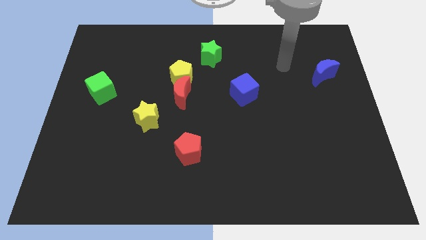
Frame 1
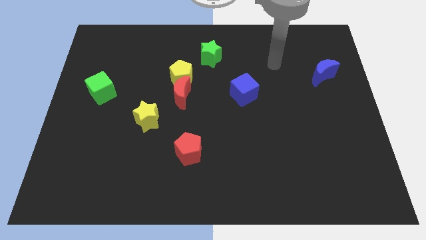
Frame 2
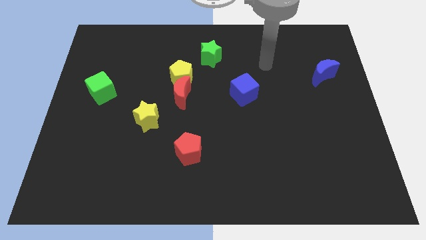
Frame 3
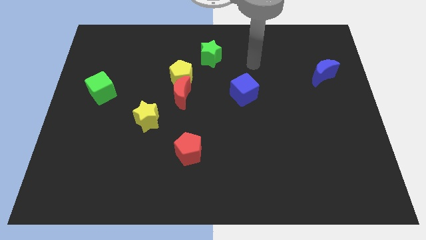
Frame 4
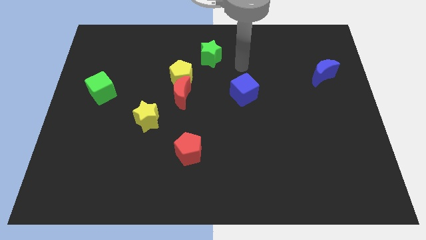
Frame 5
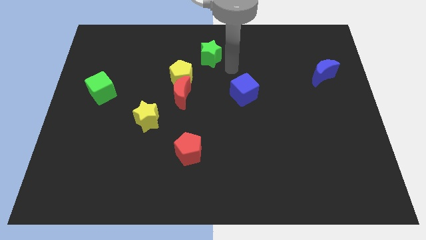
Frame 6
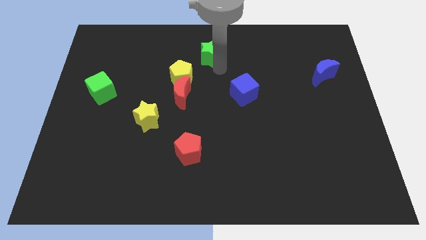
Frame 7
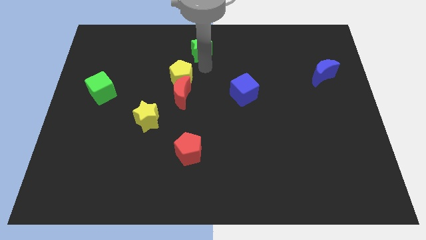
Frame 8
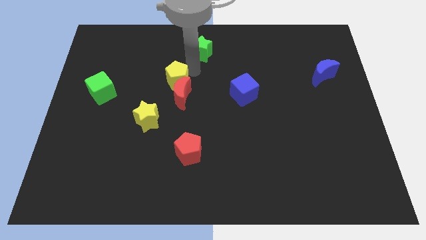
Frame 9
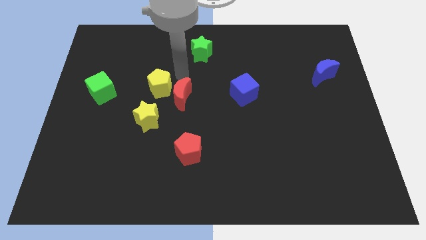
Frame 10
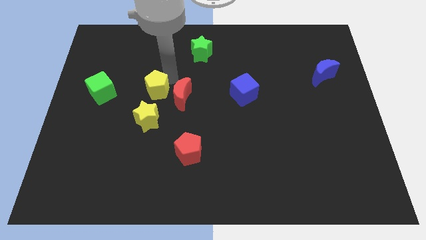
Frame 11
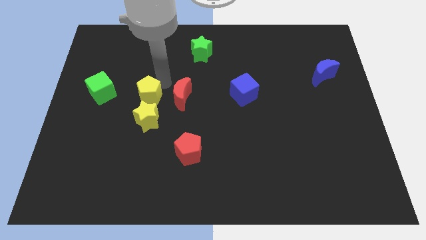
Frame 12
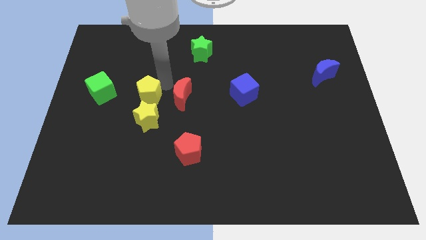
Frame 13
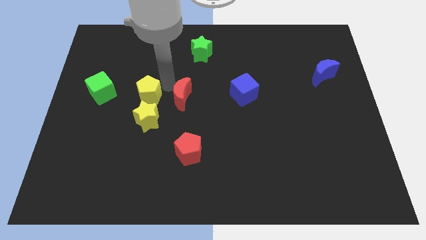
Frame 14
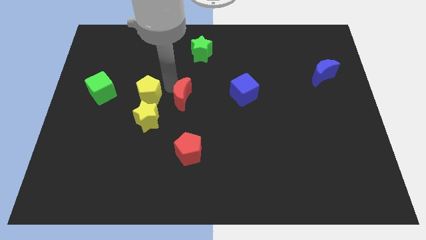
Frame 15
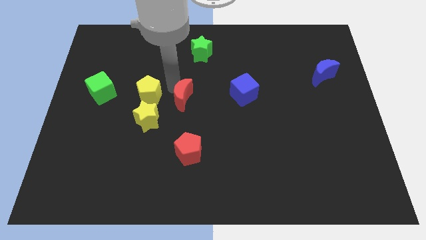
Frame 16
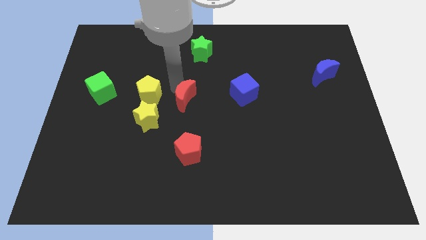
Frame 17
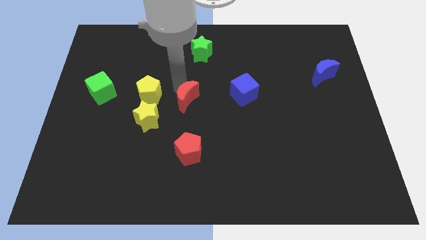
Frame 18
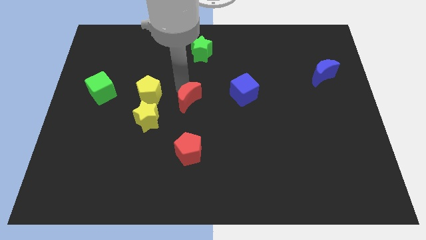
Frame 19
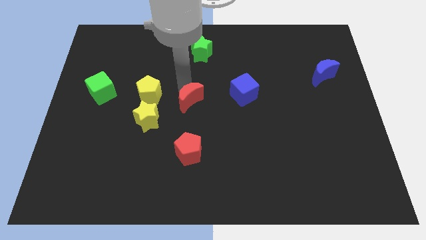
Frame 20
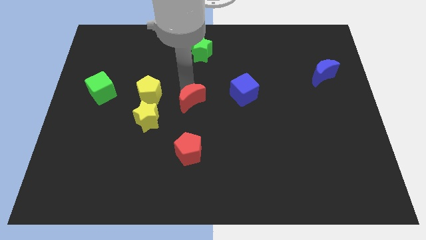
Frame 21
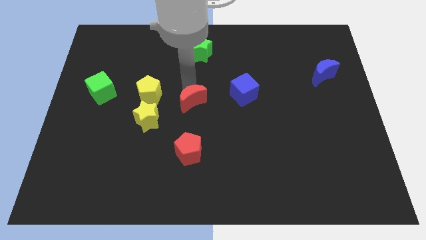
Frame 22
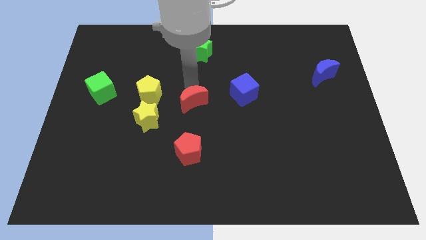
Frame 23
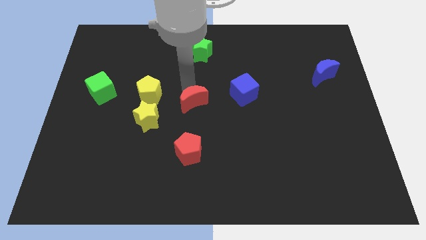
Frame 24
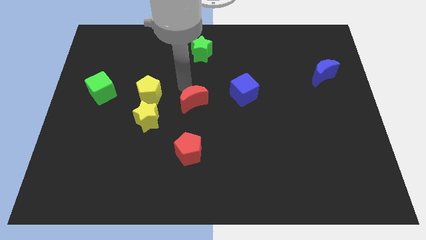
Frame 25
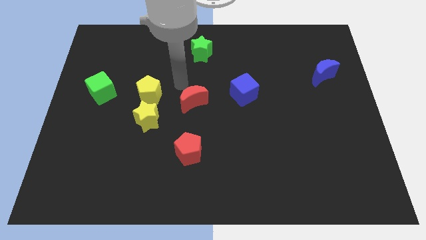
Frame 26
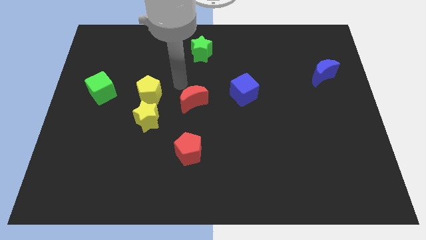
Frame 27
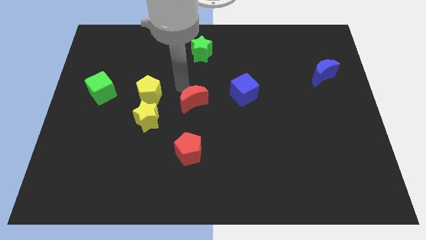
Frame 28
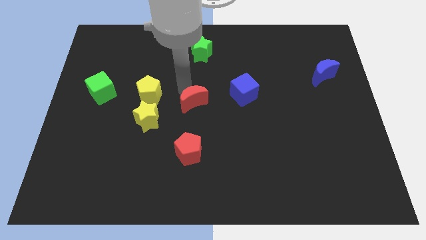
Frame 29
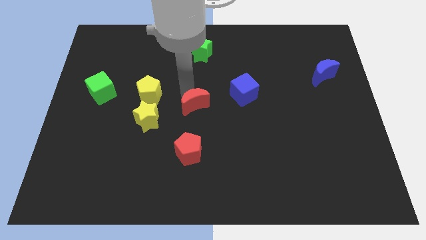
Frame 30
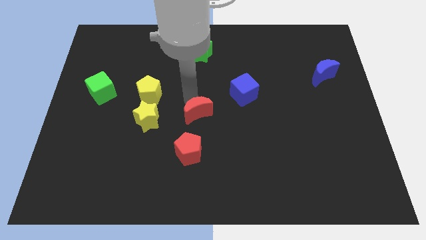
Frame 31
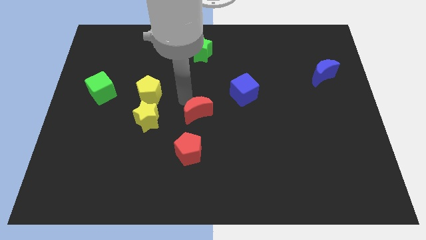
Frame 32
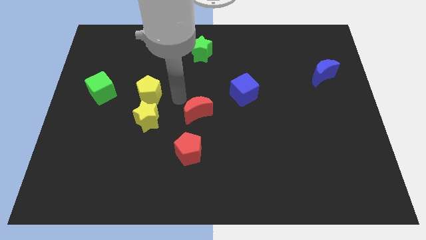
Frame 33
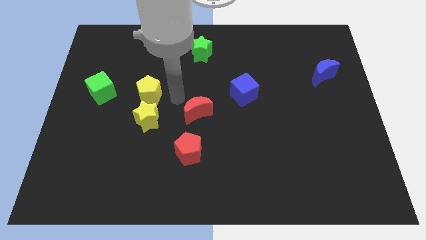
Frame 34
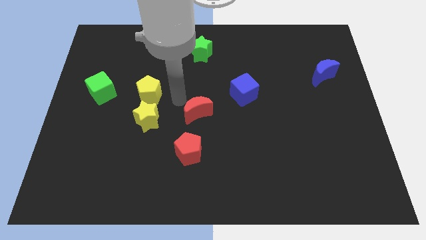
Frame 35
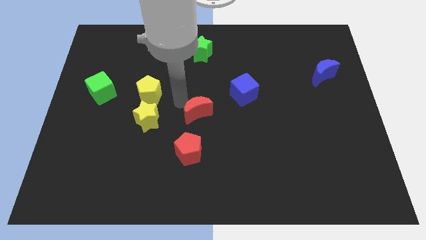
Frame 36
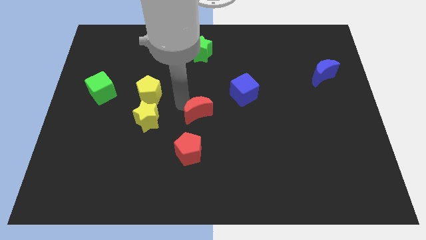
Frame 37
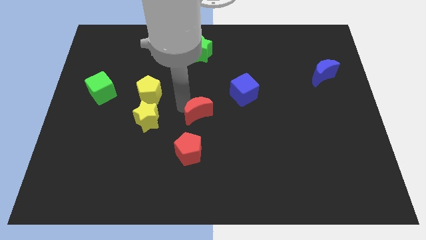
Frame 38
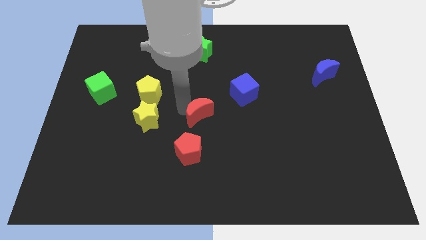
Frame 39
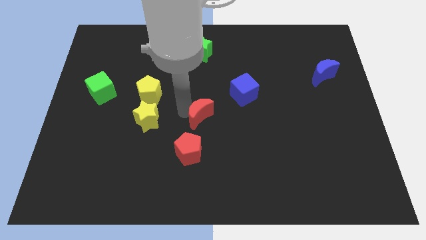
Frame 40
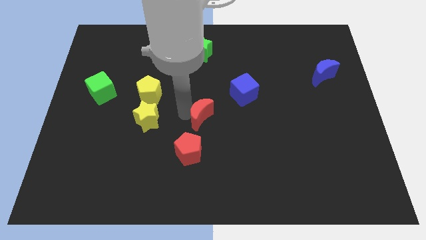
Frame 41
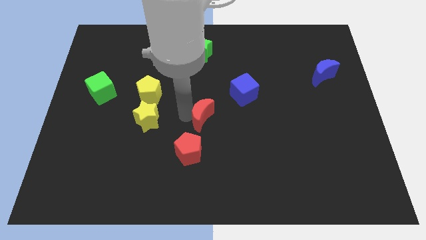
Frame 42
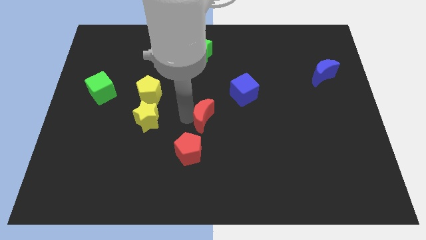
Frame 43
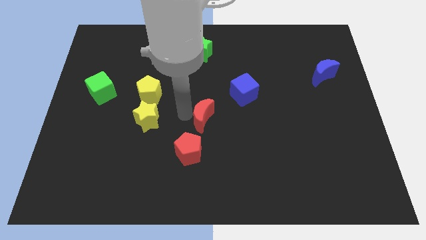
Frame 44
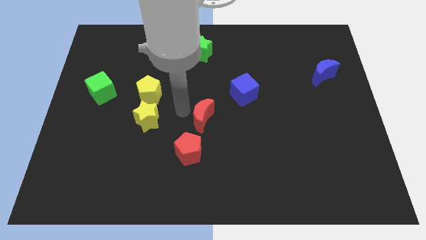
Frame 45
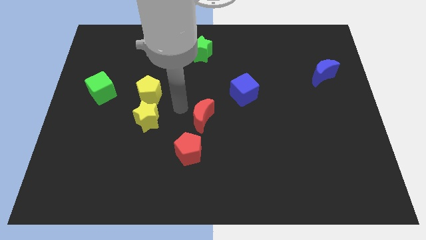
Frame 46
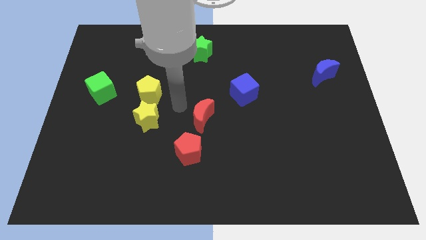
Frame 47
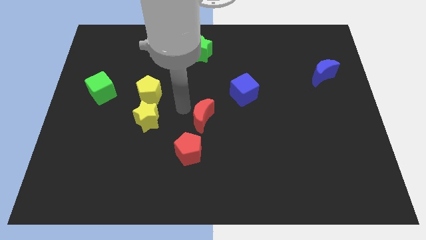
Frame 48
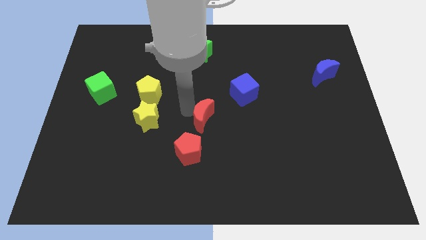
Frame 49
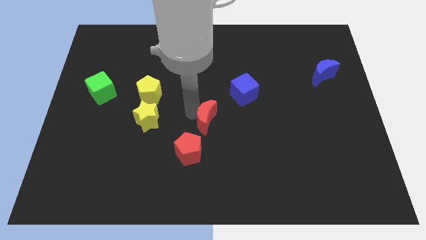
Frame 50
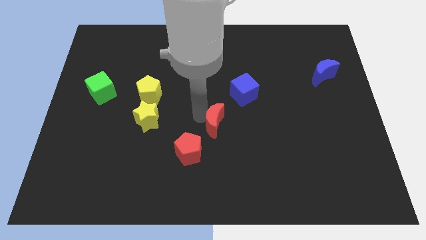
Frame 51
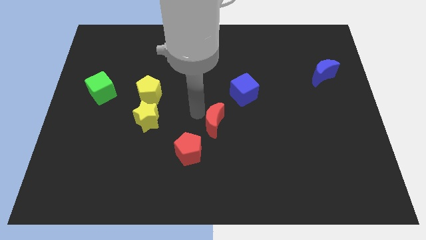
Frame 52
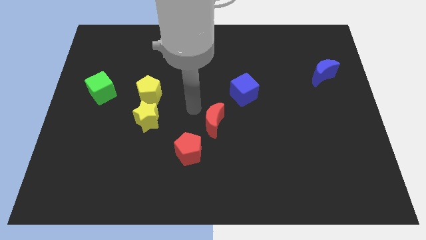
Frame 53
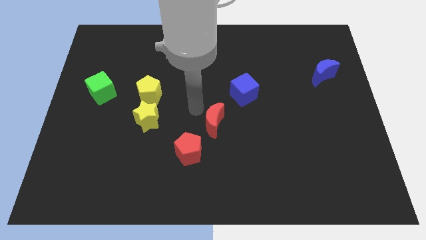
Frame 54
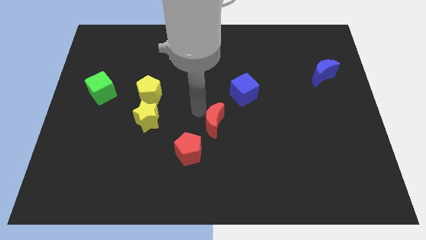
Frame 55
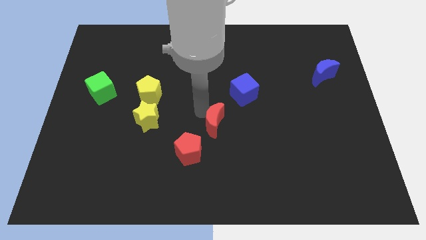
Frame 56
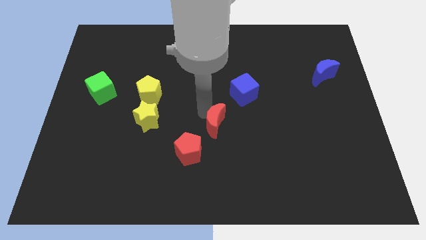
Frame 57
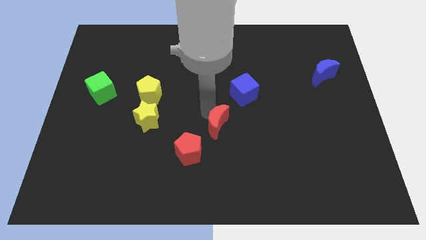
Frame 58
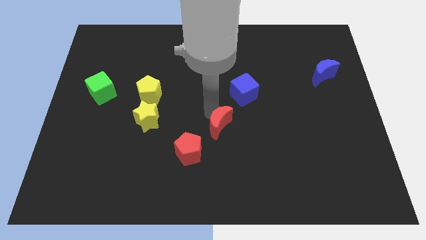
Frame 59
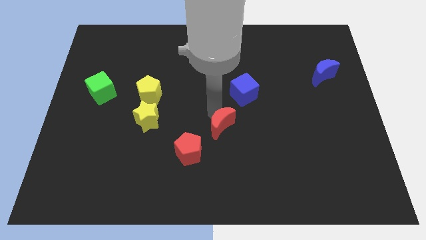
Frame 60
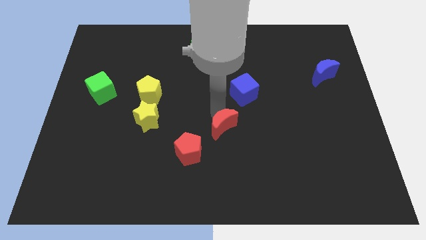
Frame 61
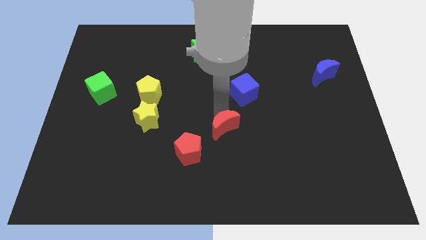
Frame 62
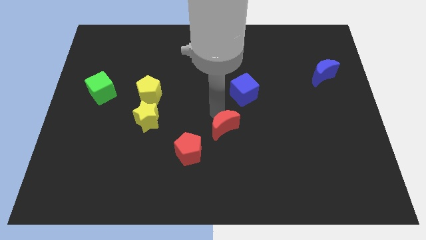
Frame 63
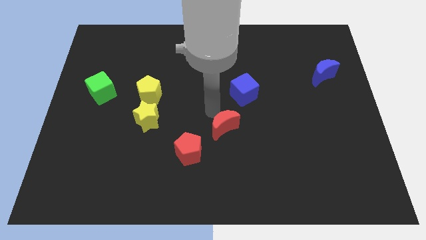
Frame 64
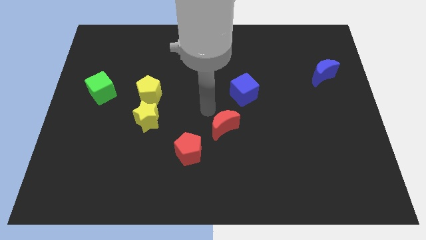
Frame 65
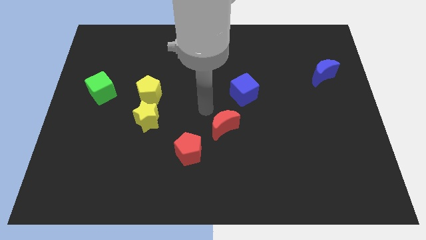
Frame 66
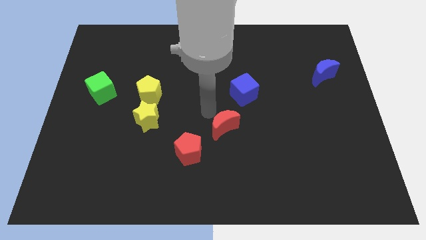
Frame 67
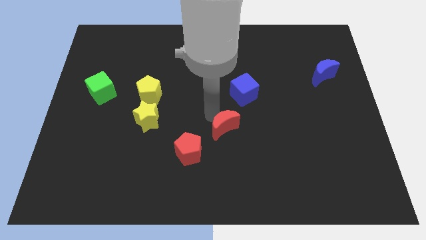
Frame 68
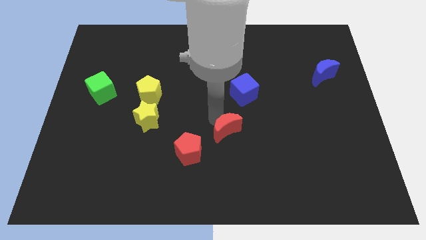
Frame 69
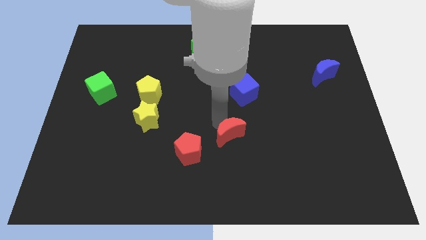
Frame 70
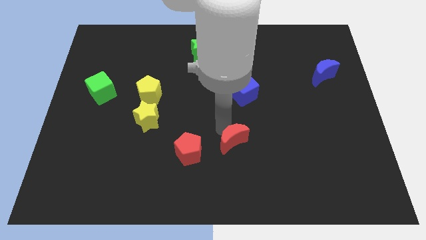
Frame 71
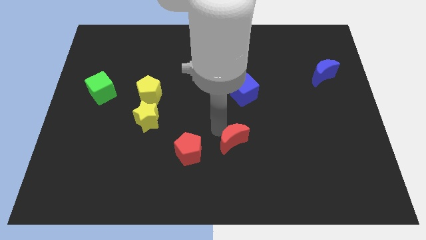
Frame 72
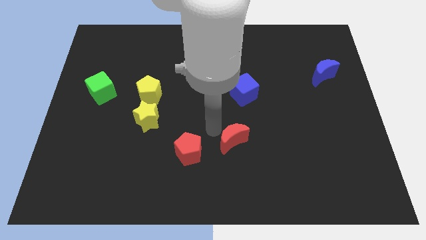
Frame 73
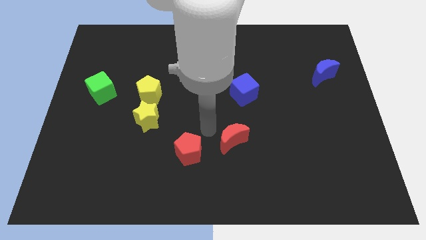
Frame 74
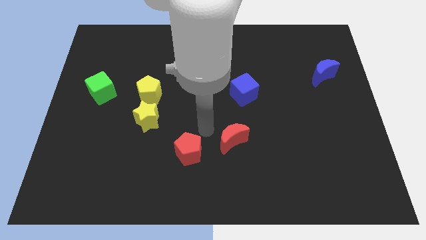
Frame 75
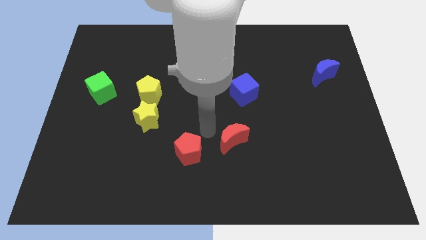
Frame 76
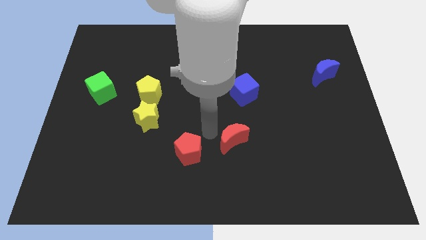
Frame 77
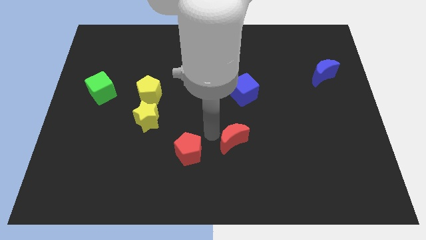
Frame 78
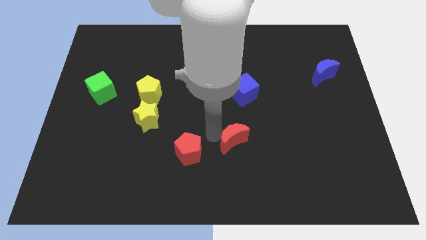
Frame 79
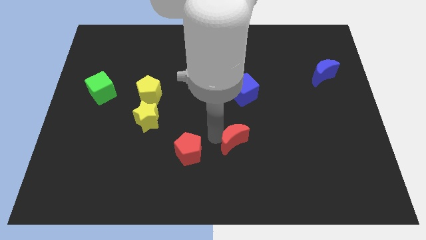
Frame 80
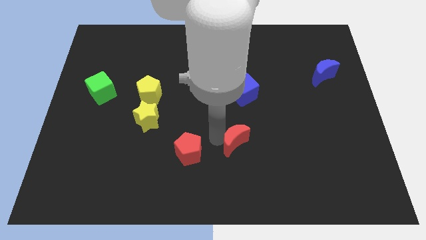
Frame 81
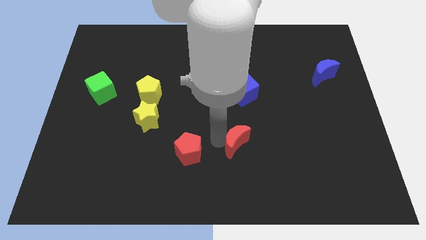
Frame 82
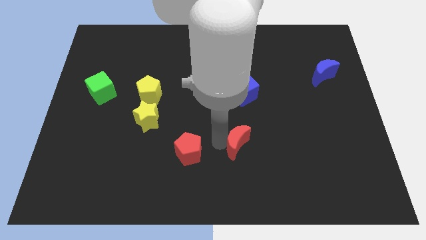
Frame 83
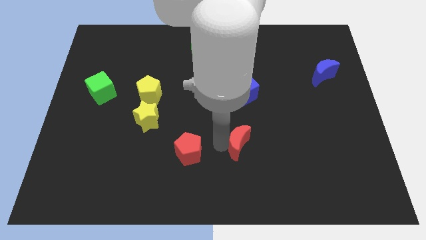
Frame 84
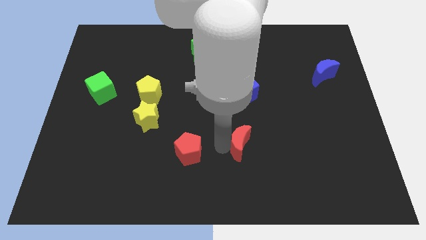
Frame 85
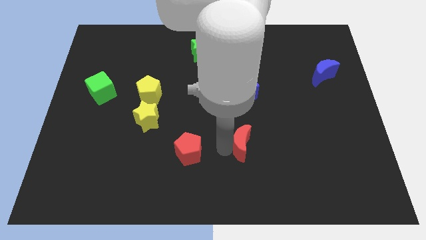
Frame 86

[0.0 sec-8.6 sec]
move the red moon downwards and to the right

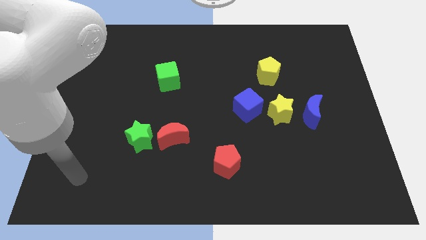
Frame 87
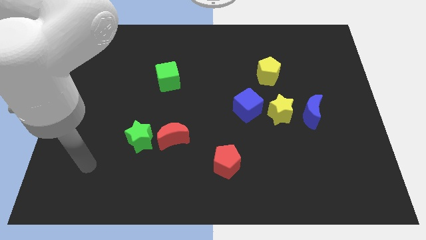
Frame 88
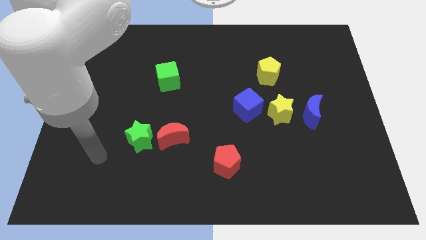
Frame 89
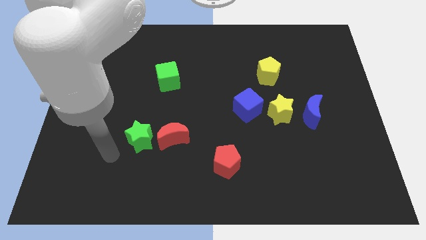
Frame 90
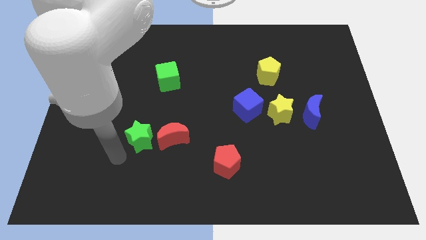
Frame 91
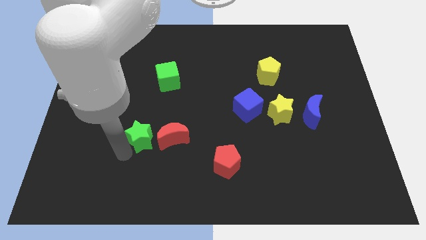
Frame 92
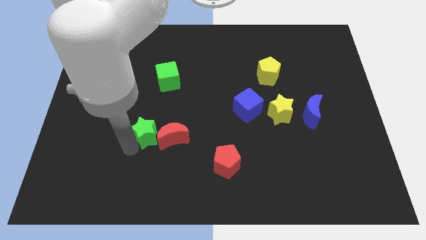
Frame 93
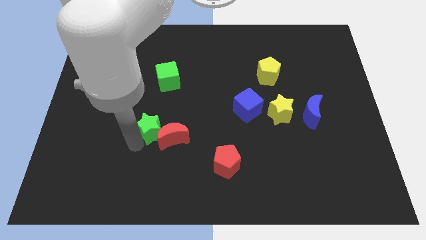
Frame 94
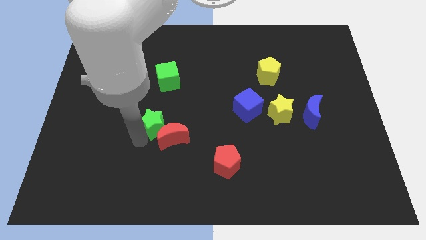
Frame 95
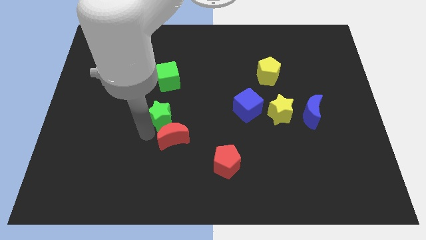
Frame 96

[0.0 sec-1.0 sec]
slide the green star a little up and to the right diagonally
